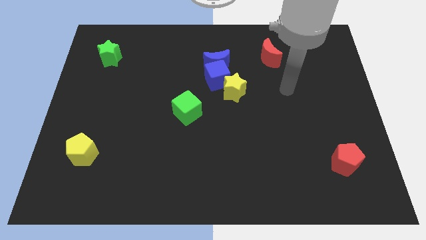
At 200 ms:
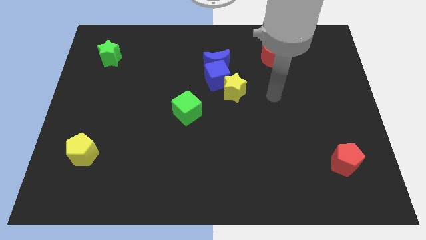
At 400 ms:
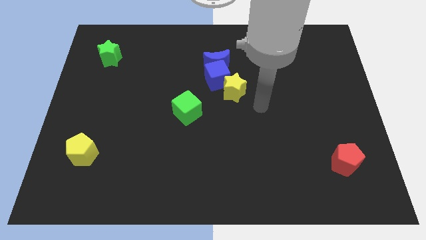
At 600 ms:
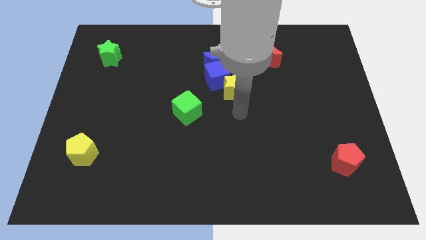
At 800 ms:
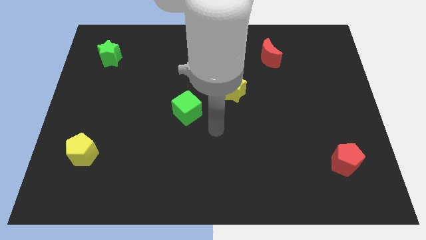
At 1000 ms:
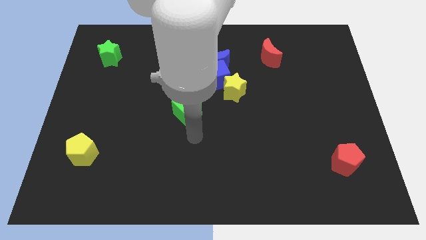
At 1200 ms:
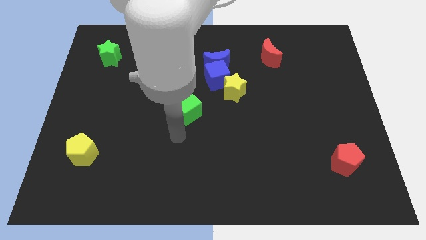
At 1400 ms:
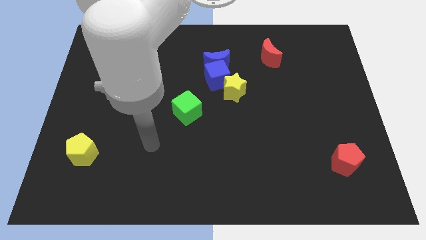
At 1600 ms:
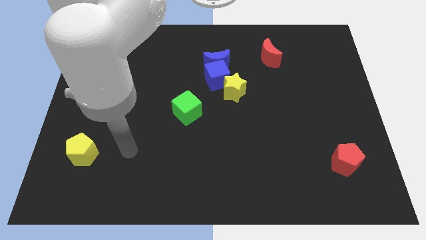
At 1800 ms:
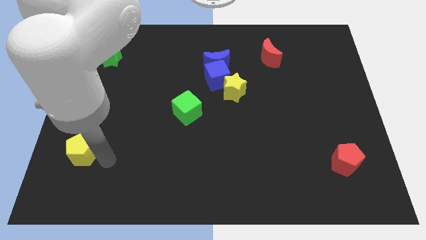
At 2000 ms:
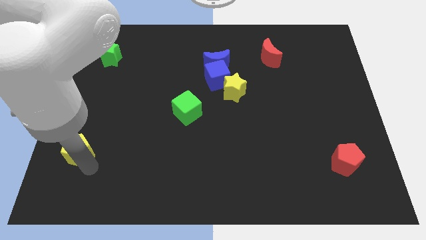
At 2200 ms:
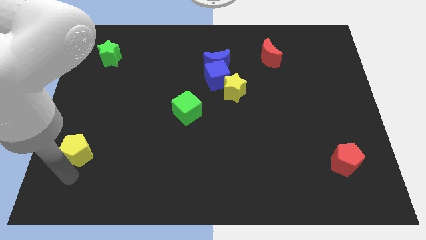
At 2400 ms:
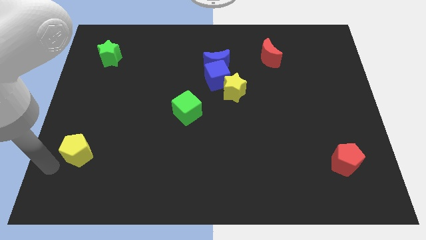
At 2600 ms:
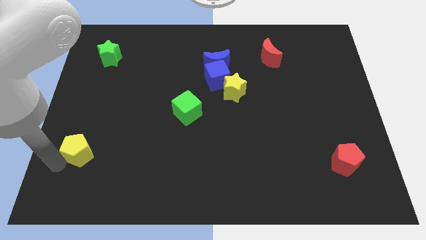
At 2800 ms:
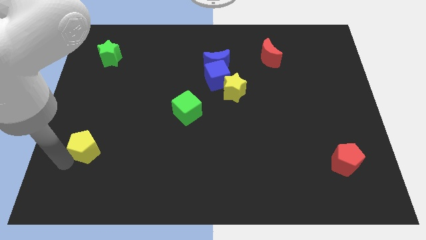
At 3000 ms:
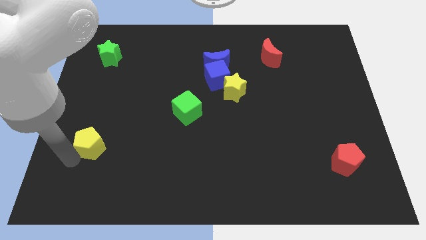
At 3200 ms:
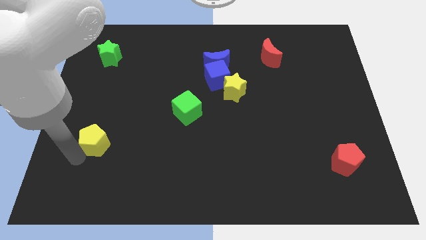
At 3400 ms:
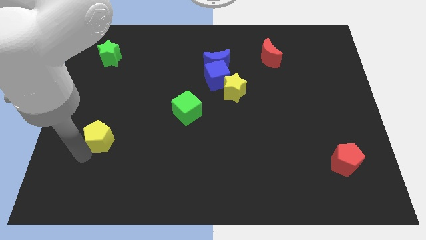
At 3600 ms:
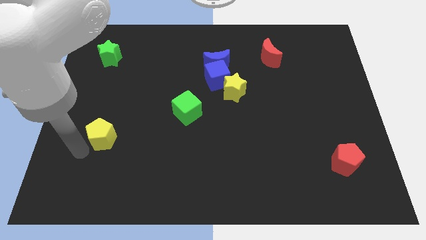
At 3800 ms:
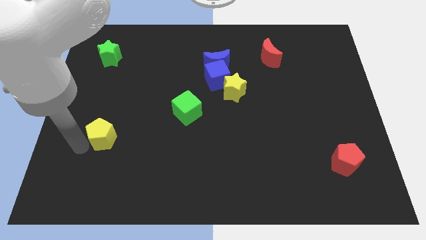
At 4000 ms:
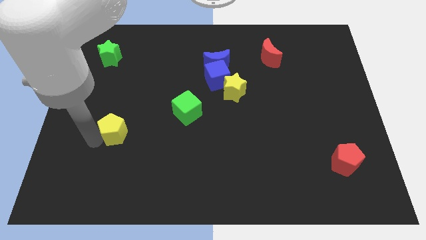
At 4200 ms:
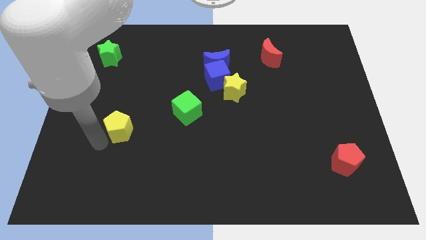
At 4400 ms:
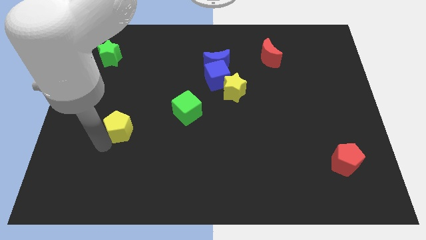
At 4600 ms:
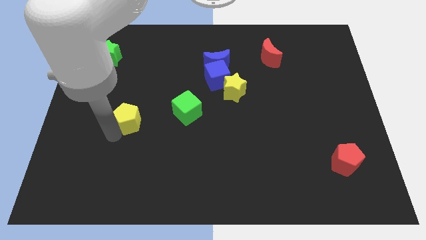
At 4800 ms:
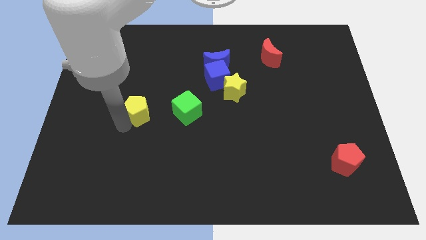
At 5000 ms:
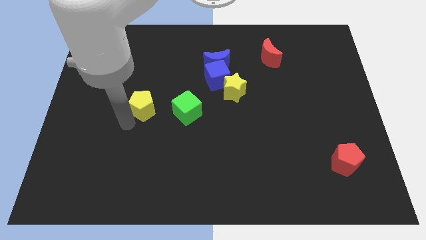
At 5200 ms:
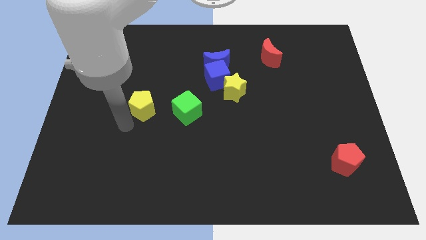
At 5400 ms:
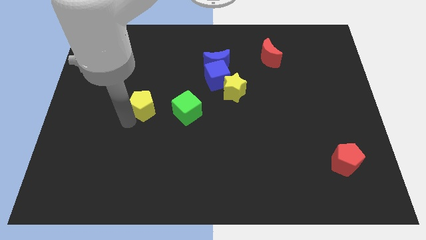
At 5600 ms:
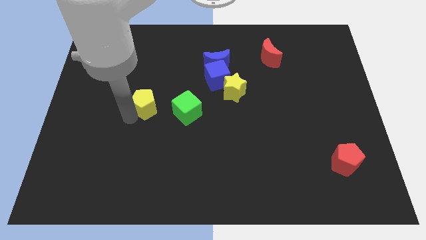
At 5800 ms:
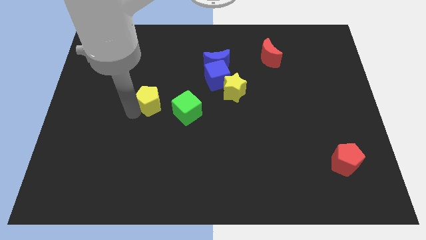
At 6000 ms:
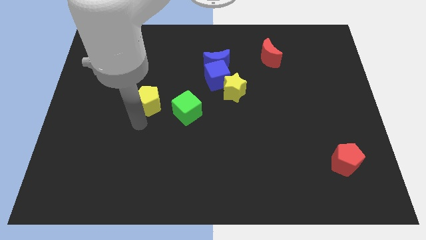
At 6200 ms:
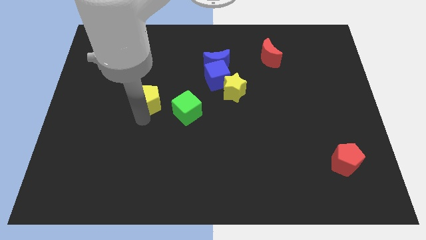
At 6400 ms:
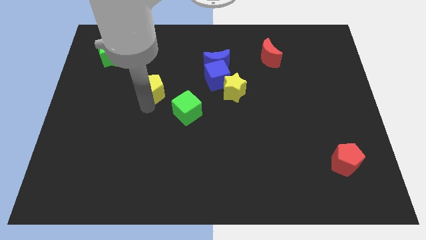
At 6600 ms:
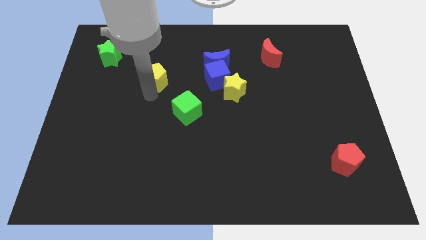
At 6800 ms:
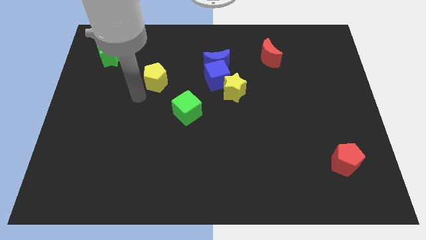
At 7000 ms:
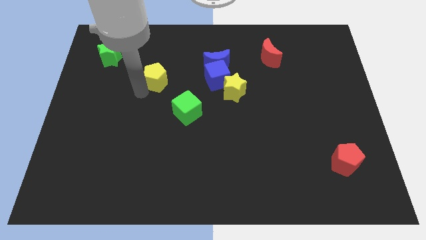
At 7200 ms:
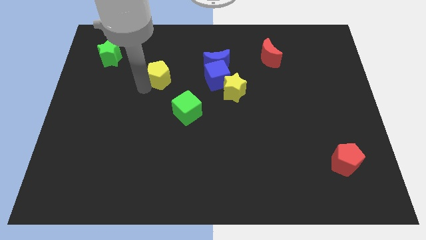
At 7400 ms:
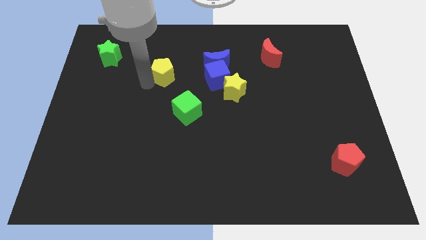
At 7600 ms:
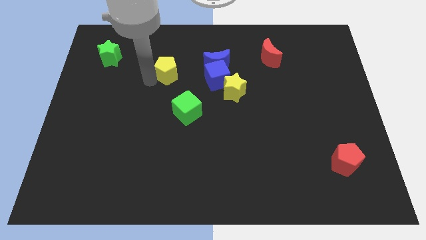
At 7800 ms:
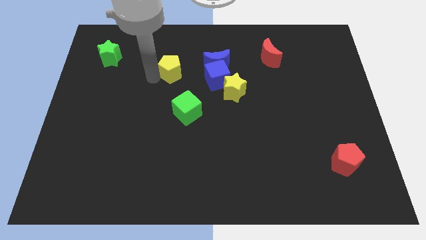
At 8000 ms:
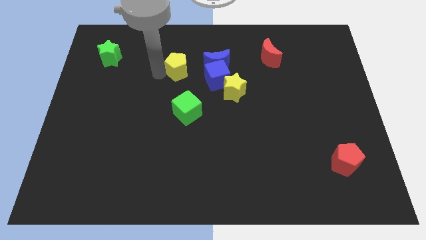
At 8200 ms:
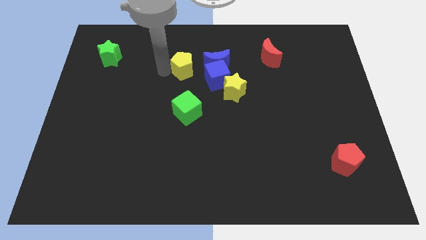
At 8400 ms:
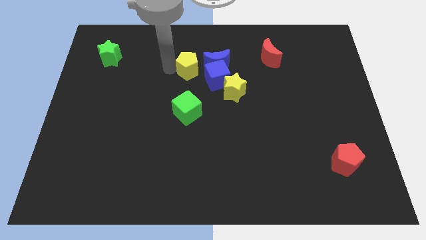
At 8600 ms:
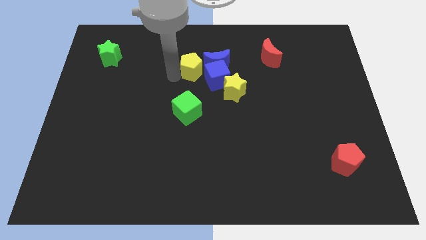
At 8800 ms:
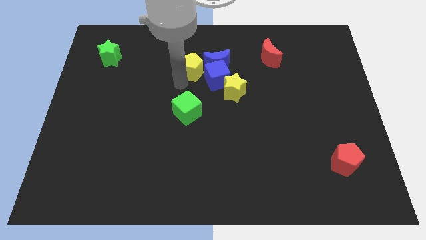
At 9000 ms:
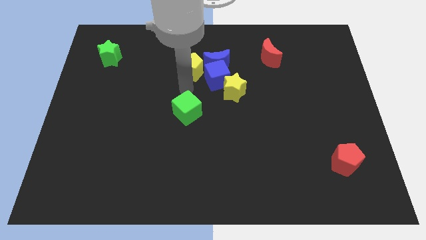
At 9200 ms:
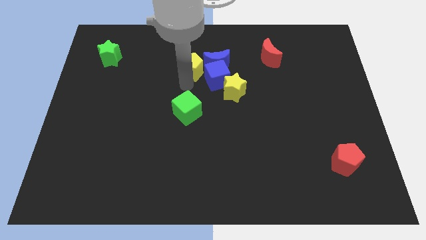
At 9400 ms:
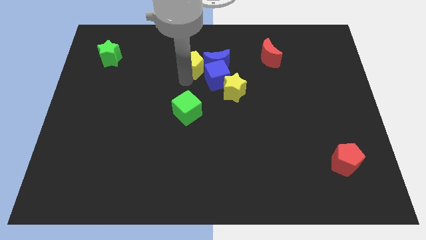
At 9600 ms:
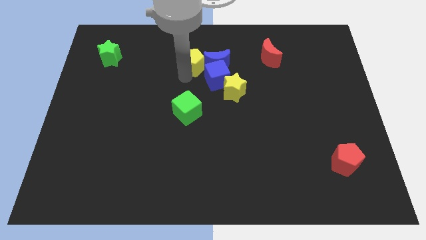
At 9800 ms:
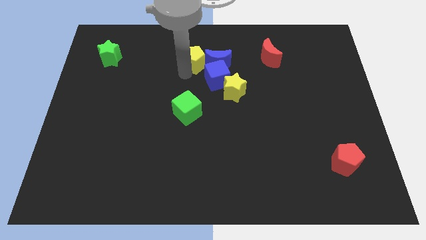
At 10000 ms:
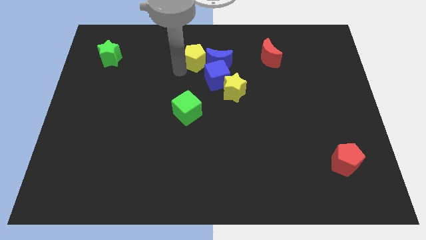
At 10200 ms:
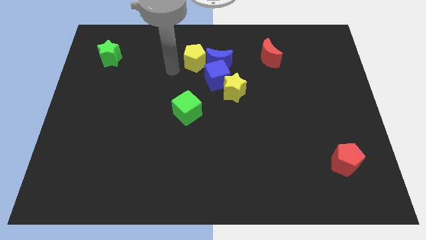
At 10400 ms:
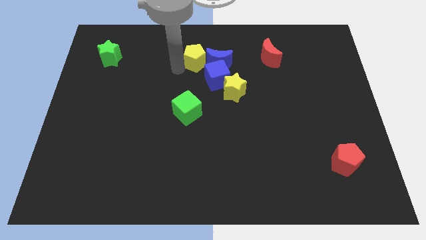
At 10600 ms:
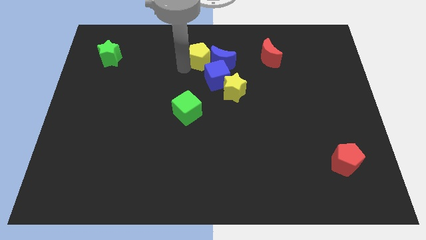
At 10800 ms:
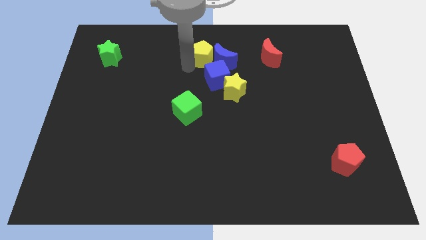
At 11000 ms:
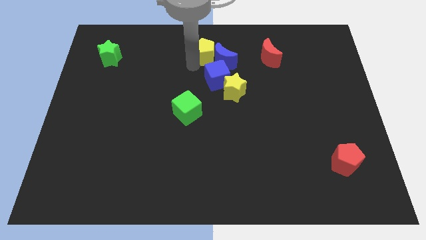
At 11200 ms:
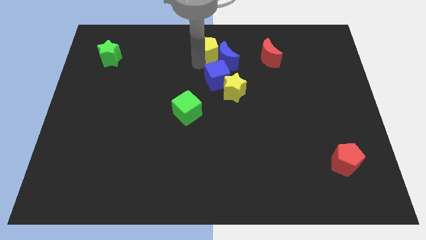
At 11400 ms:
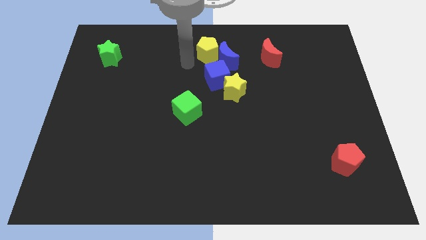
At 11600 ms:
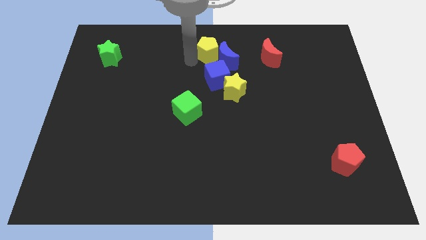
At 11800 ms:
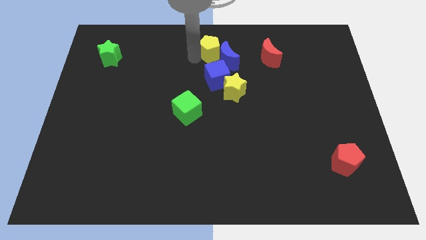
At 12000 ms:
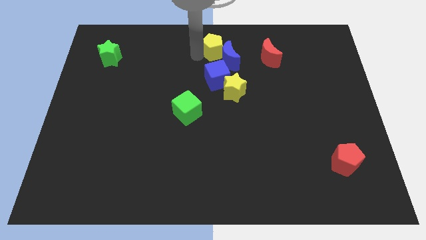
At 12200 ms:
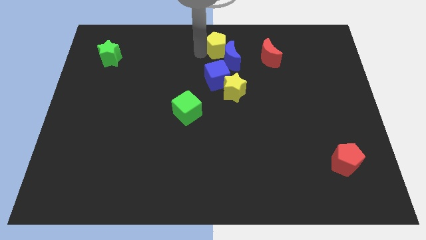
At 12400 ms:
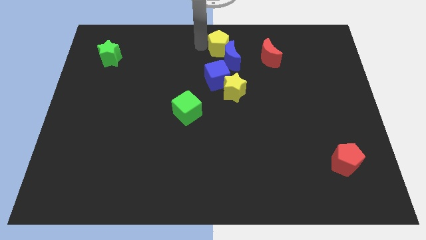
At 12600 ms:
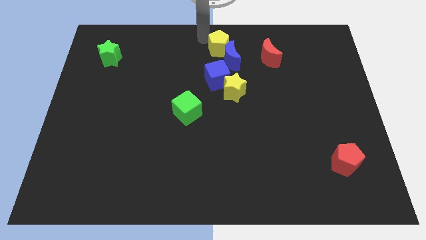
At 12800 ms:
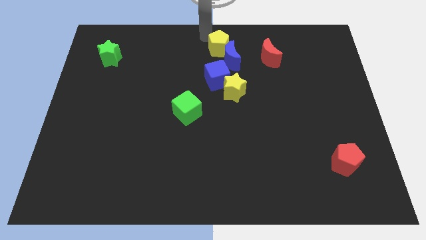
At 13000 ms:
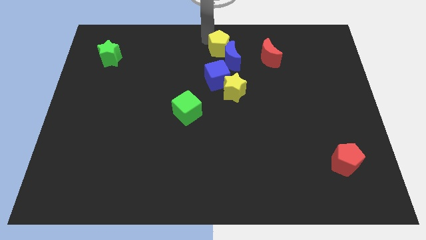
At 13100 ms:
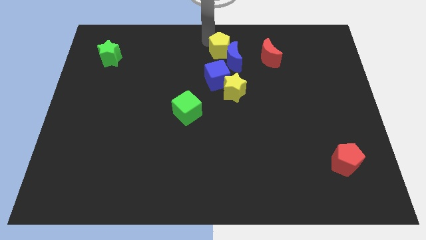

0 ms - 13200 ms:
move the yellow pentagon to the top of the yellow star
